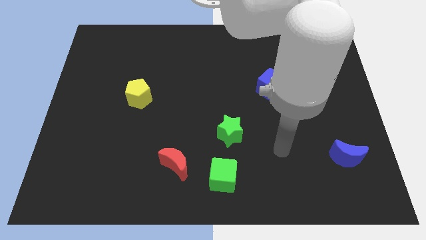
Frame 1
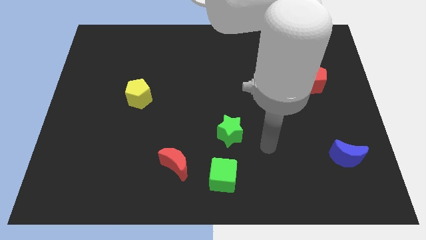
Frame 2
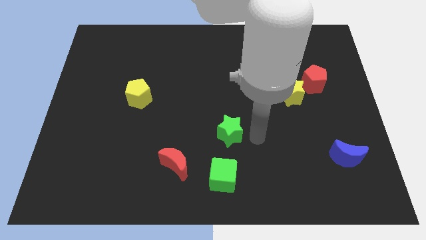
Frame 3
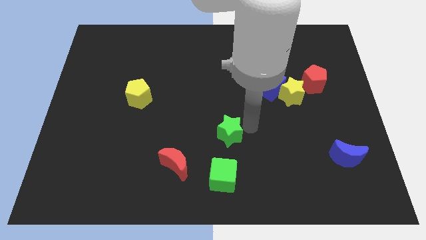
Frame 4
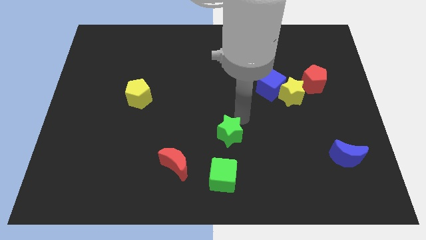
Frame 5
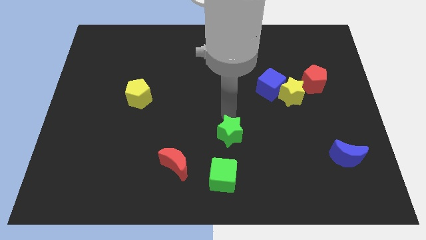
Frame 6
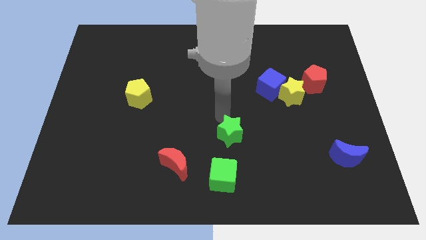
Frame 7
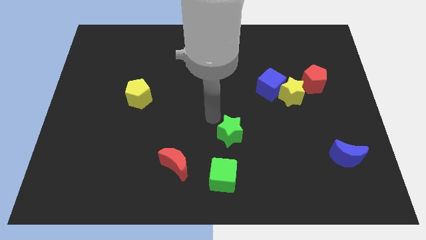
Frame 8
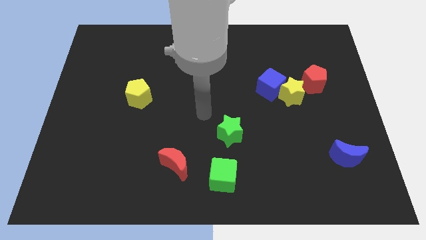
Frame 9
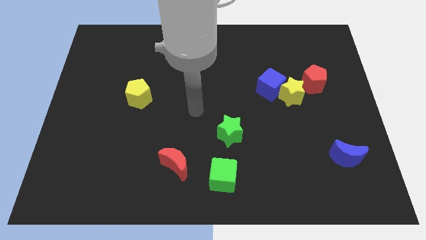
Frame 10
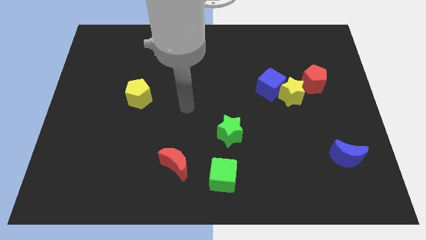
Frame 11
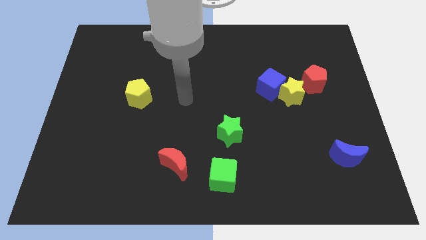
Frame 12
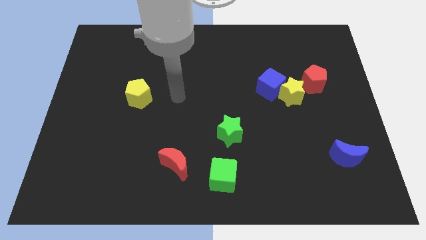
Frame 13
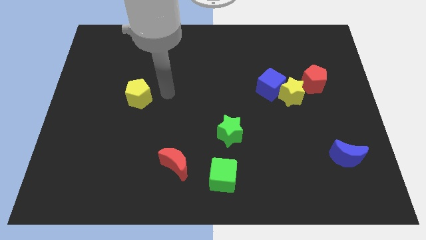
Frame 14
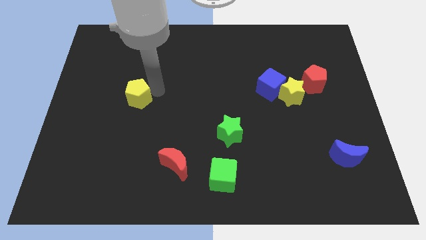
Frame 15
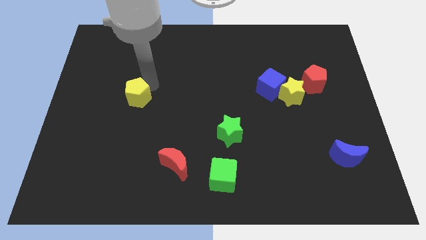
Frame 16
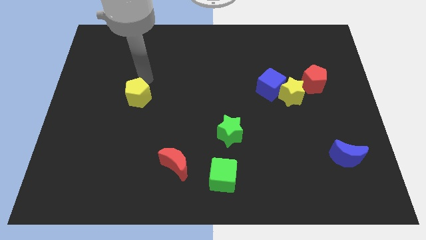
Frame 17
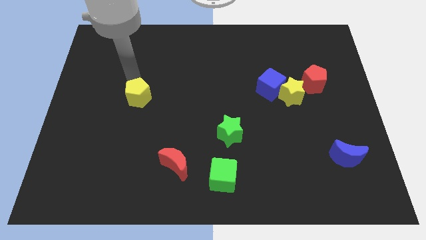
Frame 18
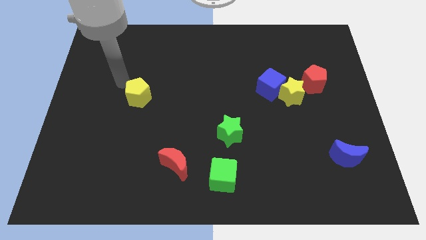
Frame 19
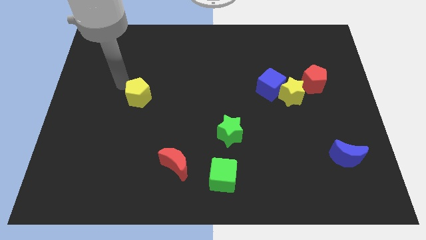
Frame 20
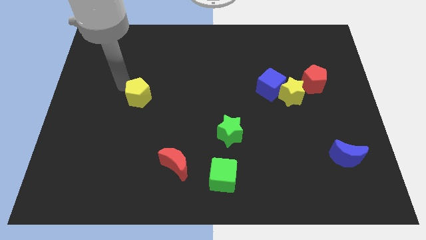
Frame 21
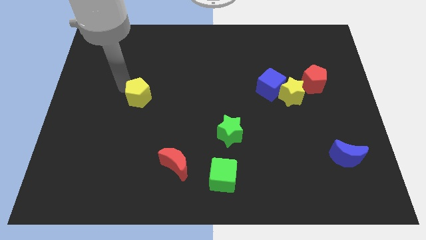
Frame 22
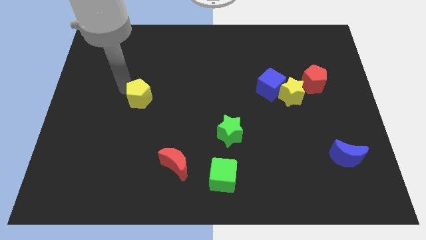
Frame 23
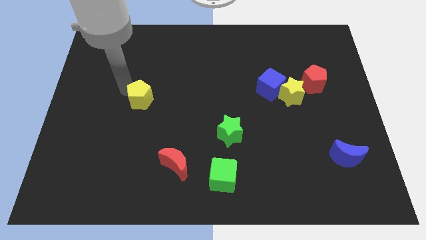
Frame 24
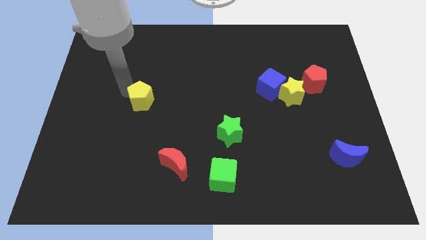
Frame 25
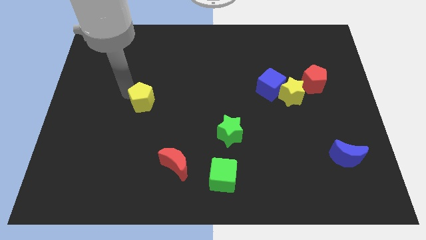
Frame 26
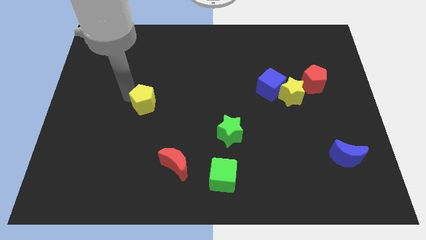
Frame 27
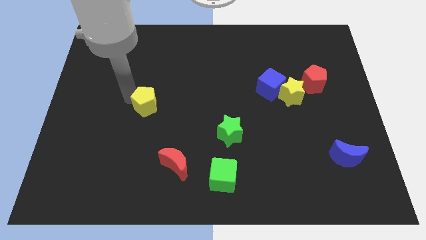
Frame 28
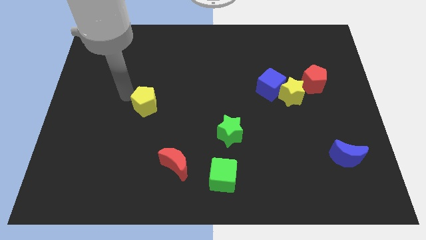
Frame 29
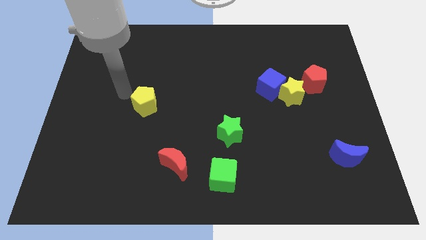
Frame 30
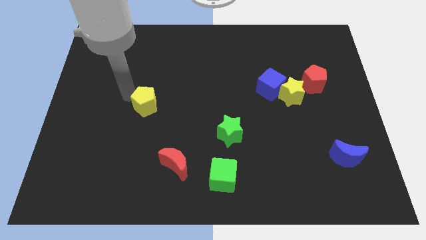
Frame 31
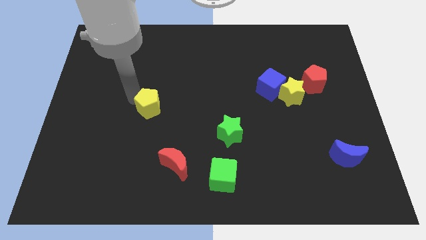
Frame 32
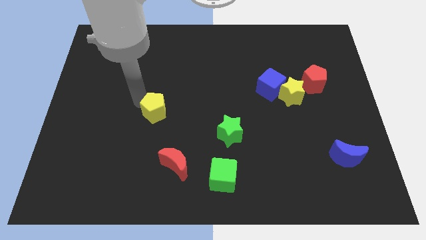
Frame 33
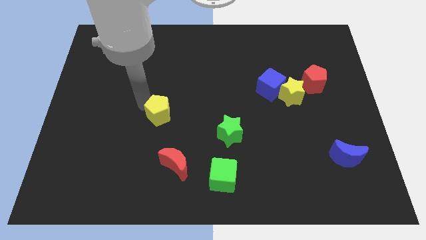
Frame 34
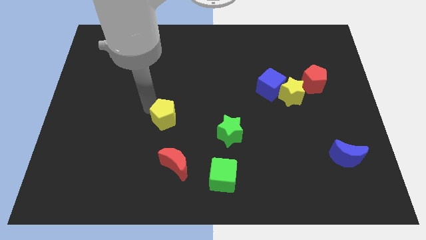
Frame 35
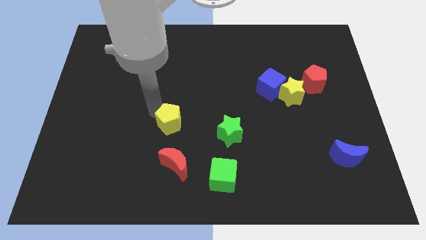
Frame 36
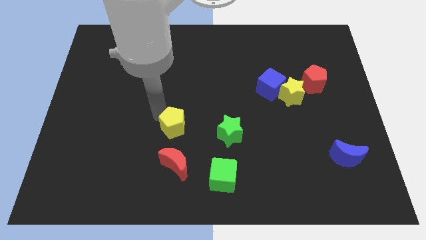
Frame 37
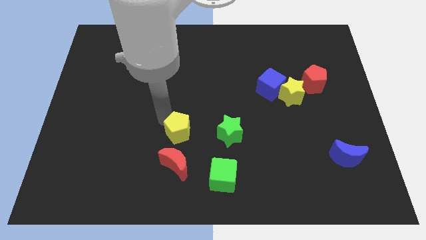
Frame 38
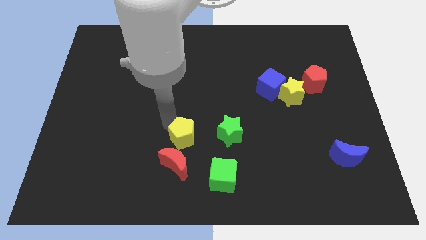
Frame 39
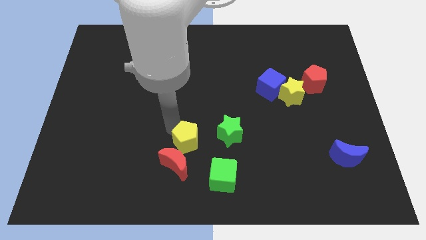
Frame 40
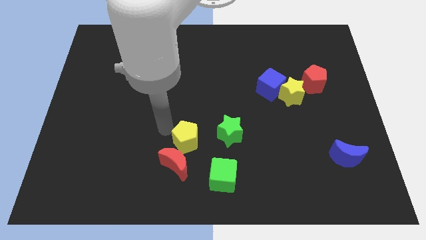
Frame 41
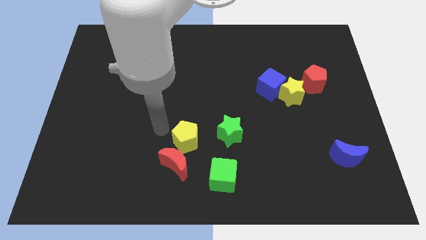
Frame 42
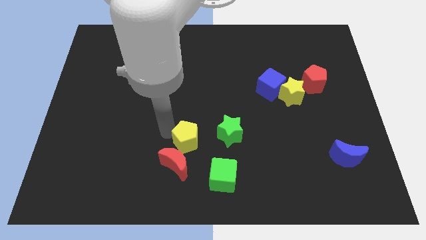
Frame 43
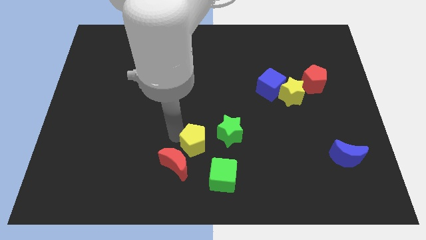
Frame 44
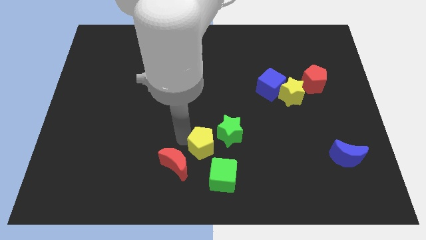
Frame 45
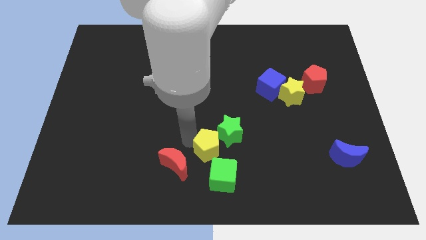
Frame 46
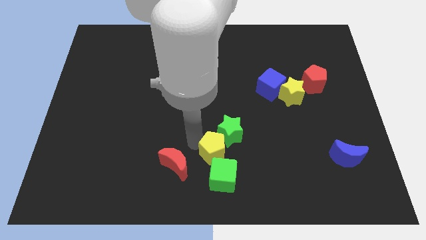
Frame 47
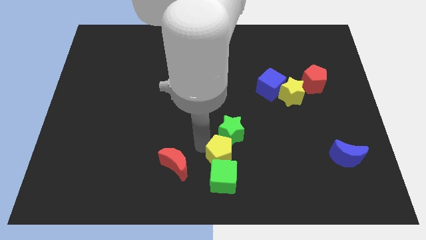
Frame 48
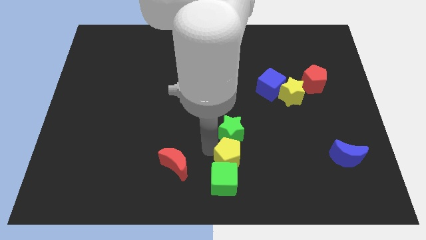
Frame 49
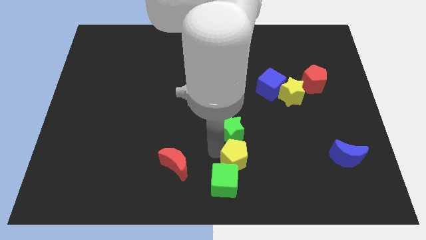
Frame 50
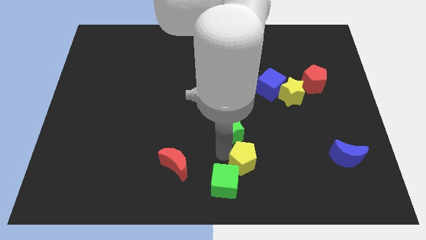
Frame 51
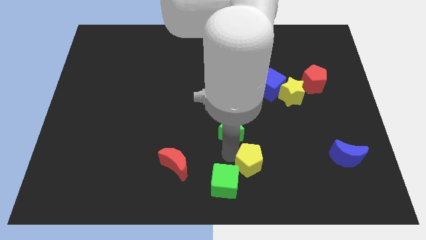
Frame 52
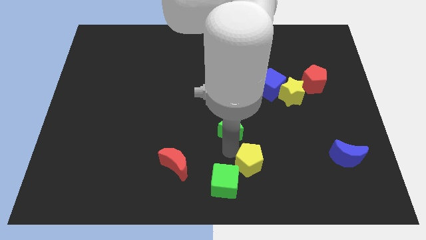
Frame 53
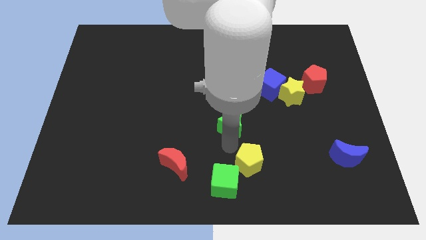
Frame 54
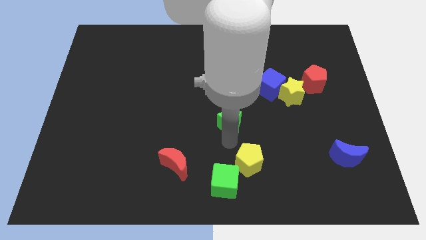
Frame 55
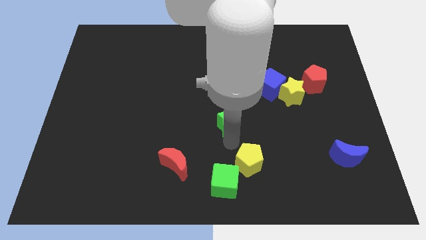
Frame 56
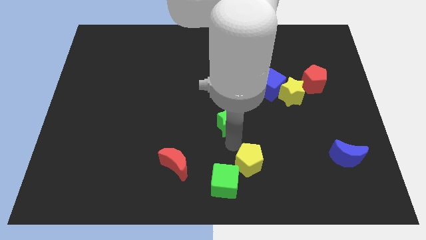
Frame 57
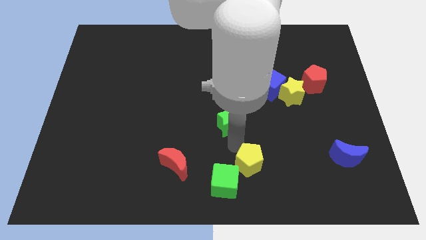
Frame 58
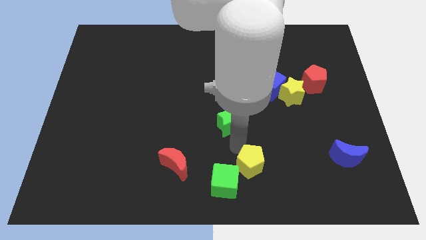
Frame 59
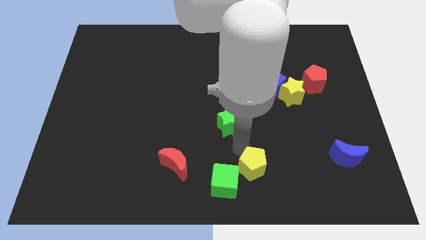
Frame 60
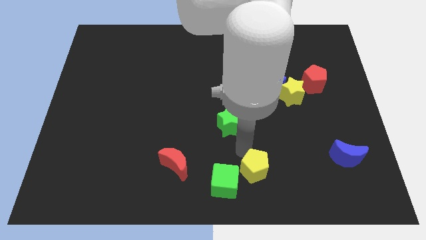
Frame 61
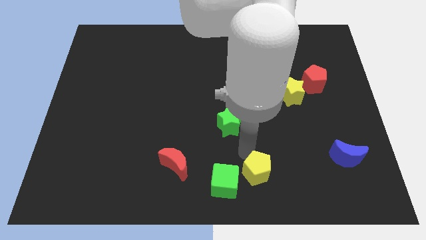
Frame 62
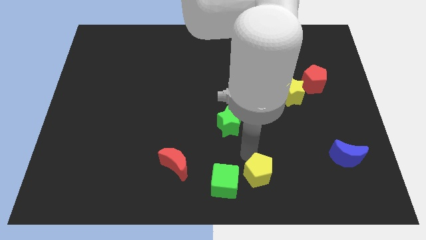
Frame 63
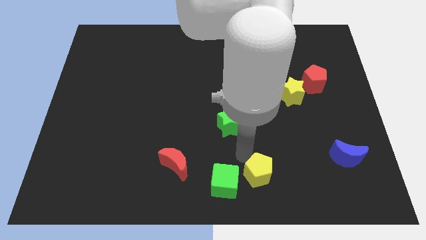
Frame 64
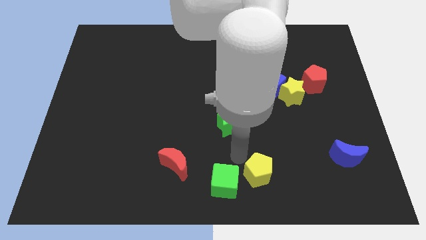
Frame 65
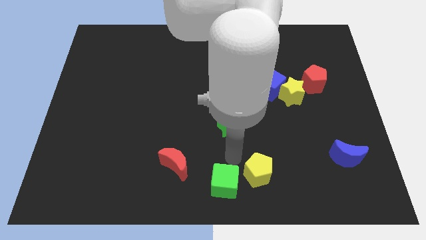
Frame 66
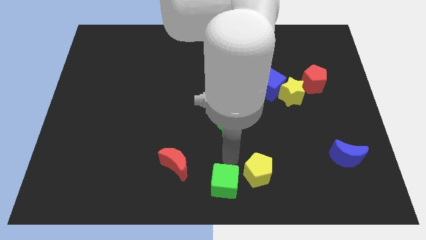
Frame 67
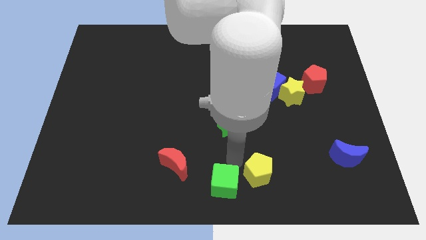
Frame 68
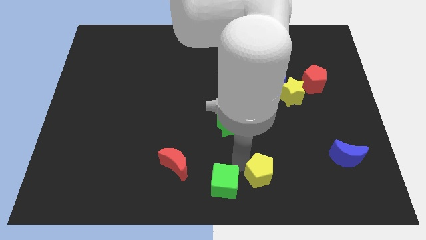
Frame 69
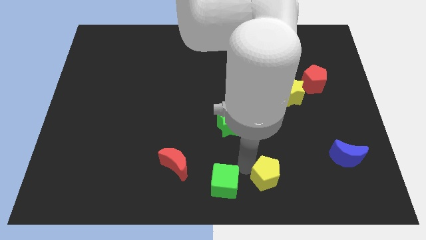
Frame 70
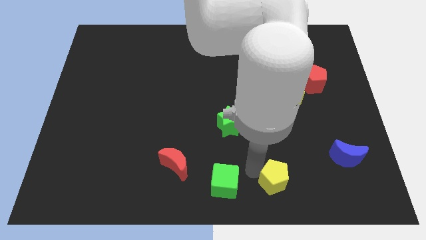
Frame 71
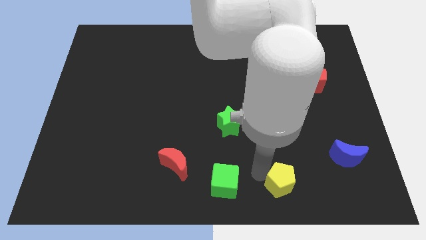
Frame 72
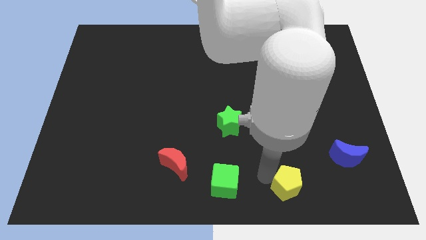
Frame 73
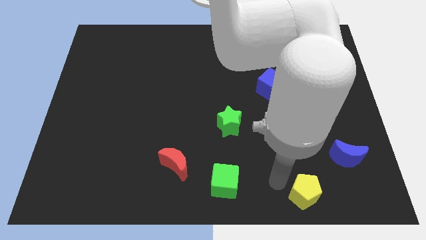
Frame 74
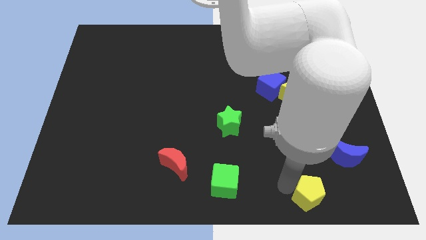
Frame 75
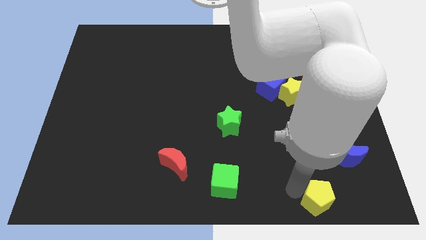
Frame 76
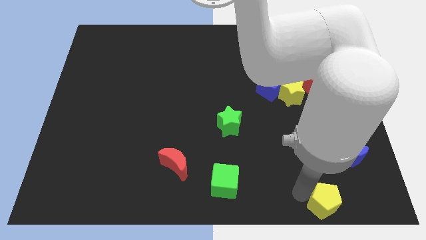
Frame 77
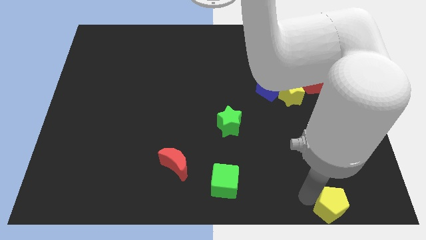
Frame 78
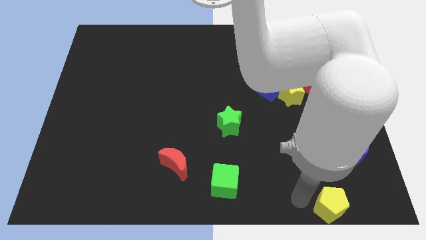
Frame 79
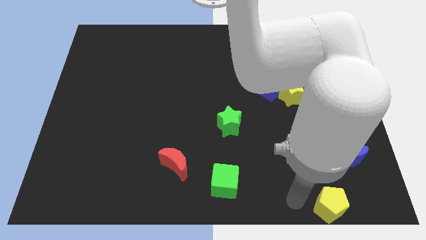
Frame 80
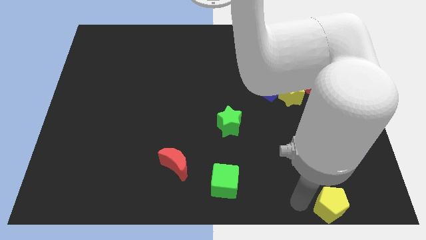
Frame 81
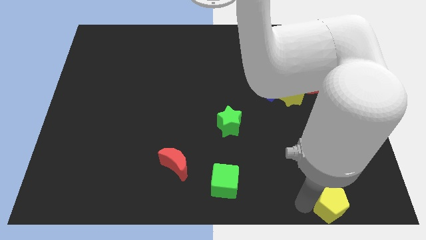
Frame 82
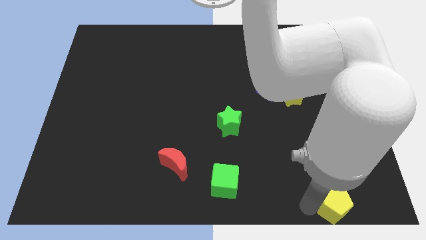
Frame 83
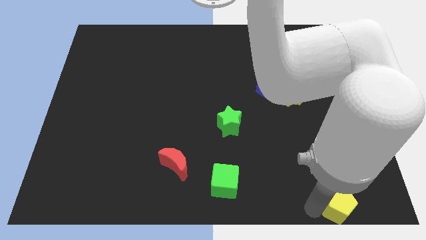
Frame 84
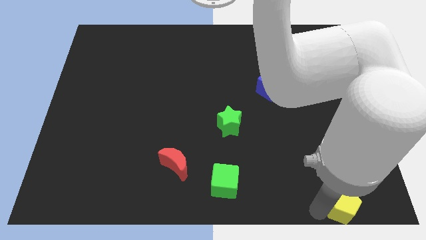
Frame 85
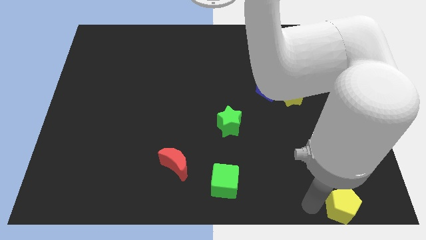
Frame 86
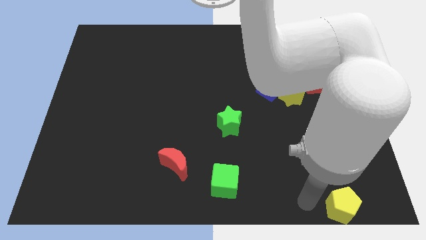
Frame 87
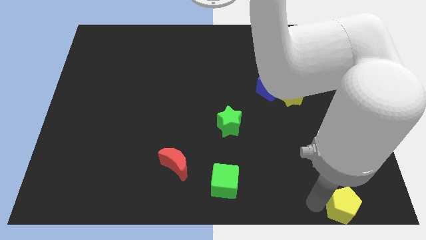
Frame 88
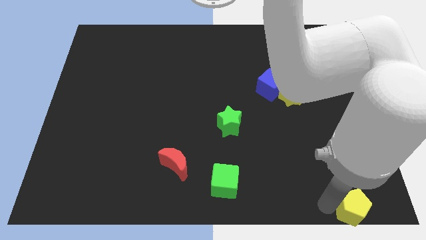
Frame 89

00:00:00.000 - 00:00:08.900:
put the yellow pentagon to the lower right corner
